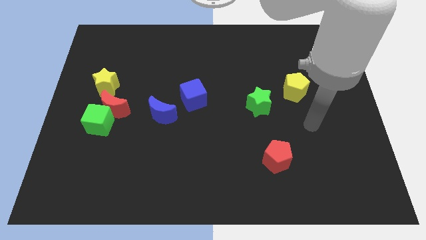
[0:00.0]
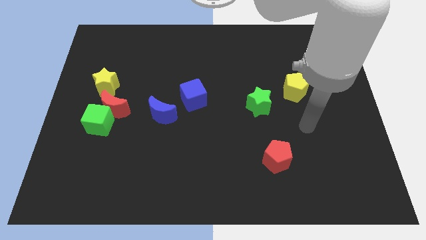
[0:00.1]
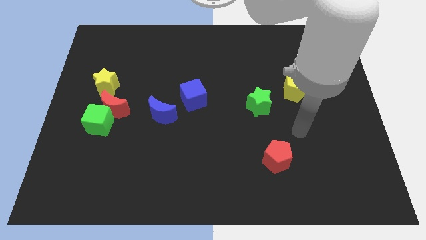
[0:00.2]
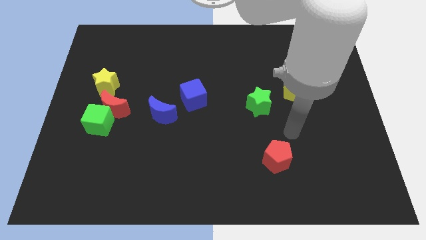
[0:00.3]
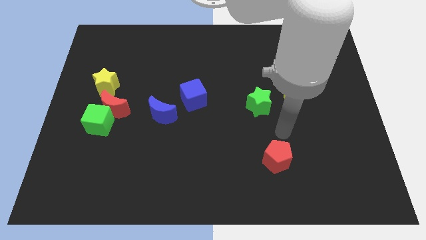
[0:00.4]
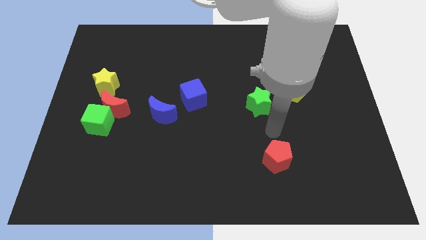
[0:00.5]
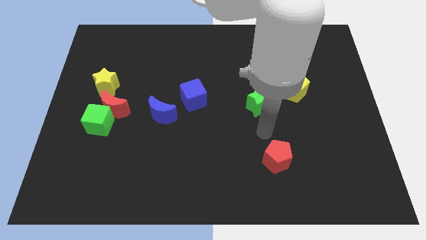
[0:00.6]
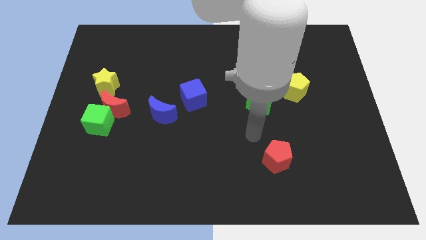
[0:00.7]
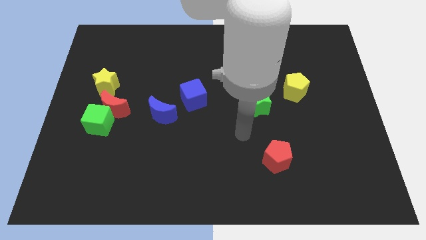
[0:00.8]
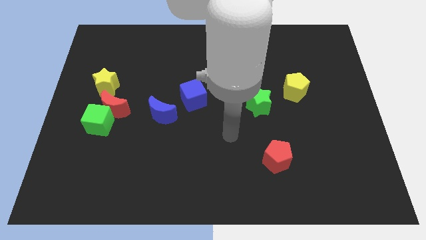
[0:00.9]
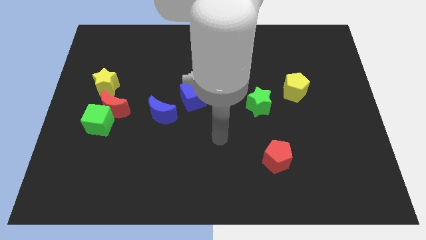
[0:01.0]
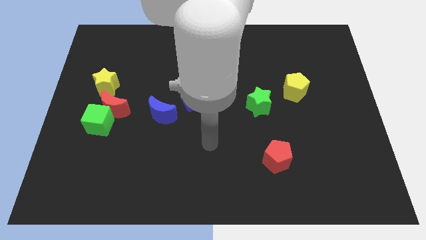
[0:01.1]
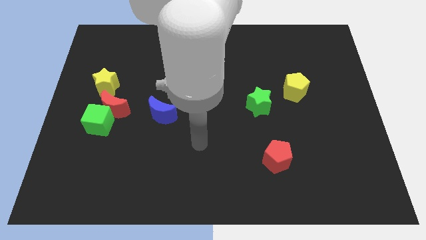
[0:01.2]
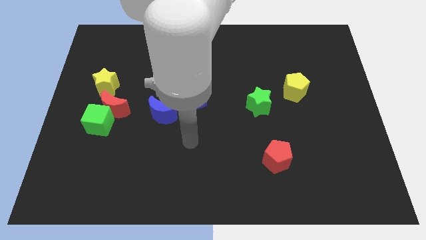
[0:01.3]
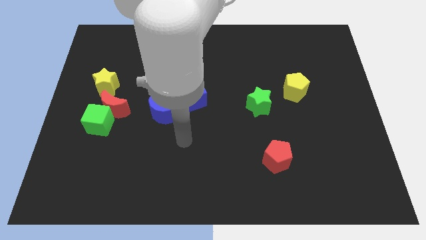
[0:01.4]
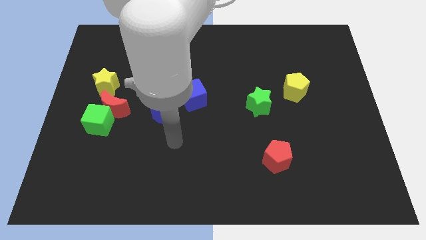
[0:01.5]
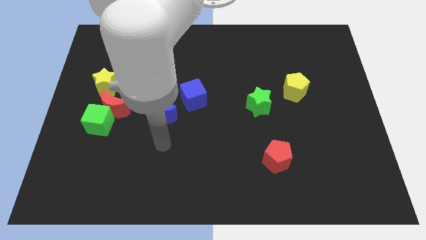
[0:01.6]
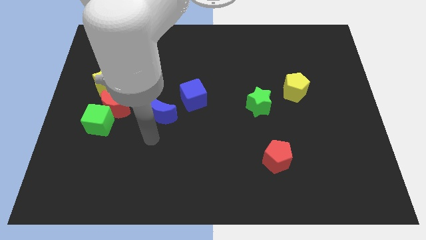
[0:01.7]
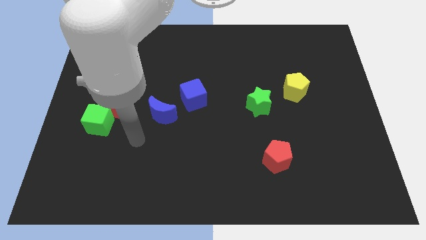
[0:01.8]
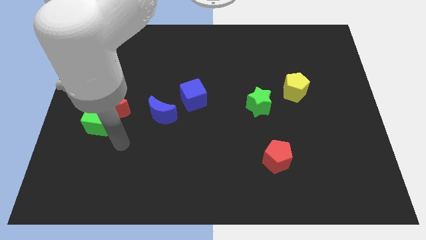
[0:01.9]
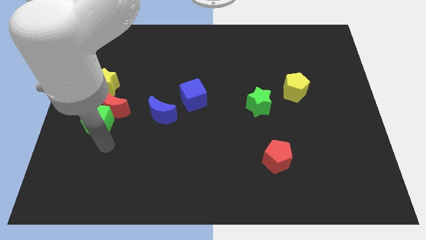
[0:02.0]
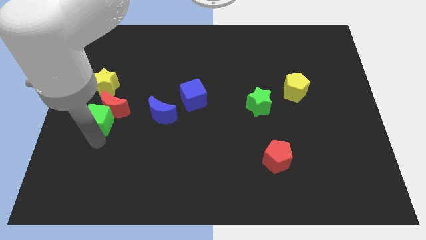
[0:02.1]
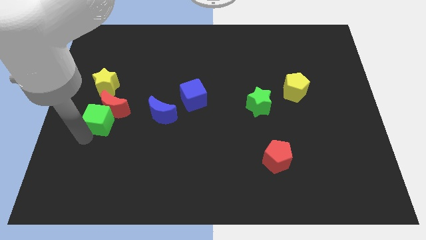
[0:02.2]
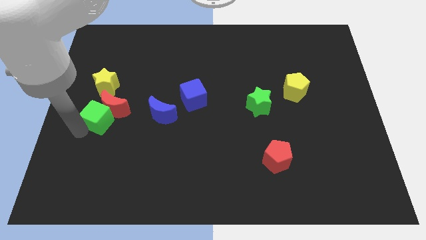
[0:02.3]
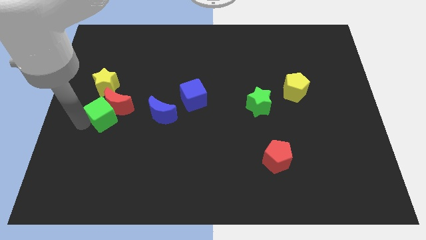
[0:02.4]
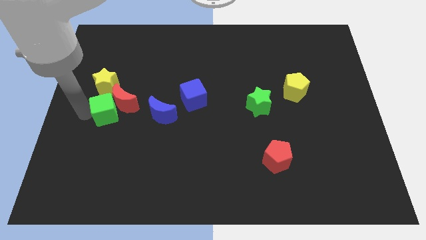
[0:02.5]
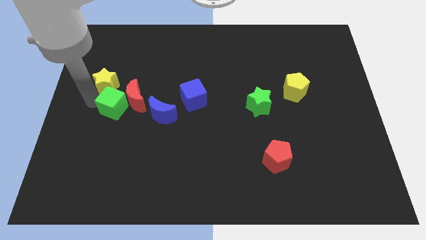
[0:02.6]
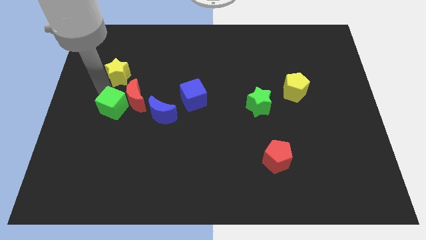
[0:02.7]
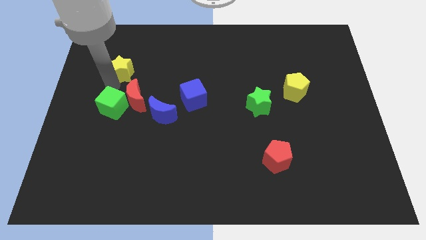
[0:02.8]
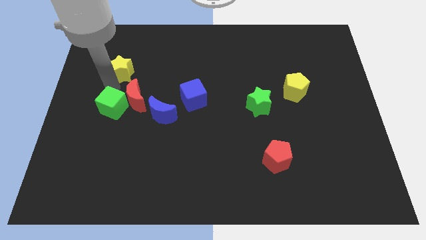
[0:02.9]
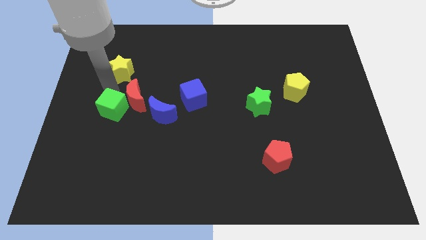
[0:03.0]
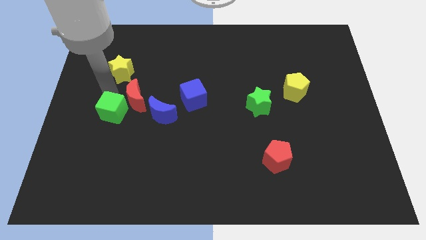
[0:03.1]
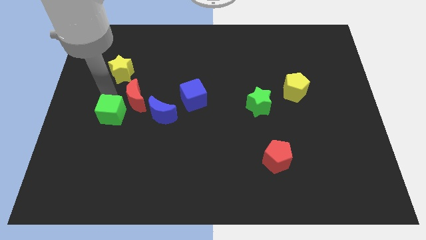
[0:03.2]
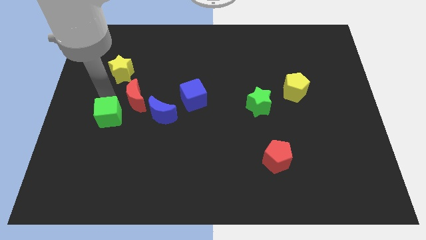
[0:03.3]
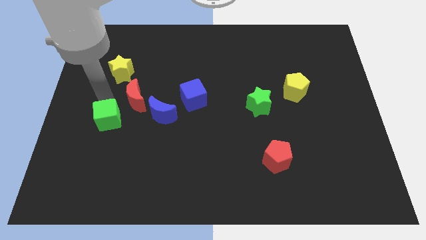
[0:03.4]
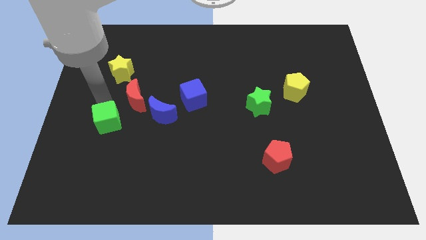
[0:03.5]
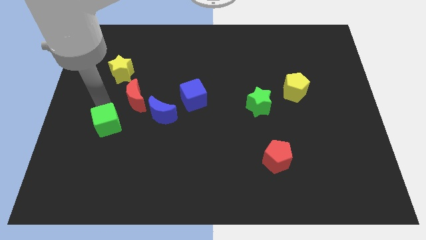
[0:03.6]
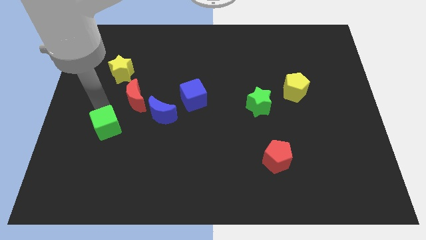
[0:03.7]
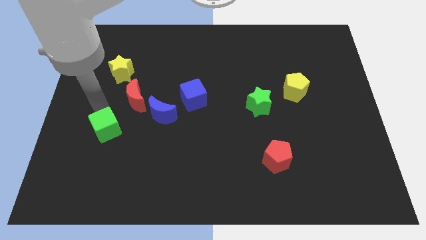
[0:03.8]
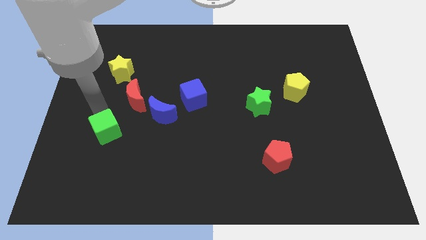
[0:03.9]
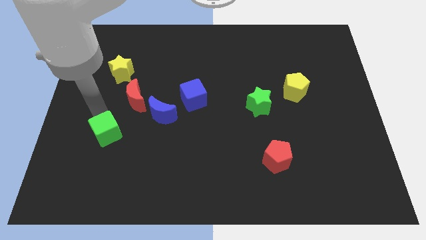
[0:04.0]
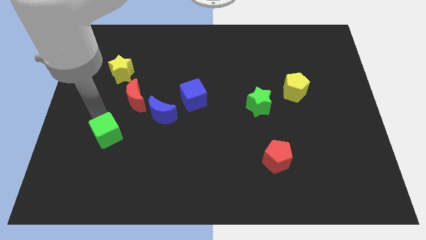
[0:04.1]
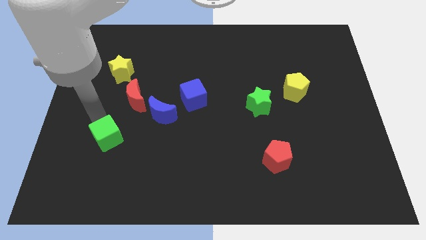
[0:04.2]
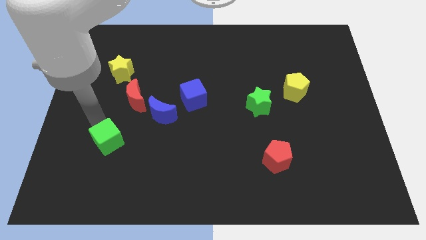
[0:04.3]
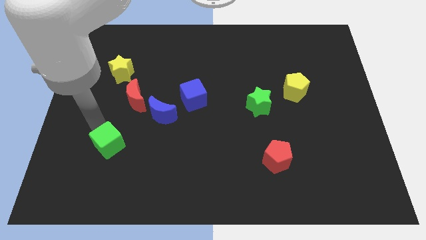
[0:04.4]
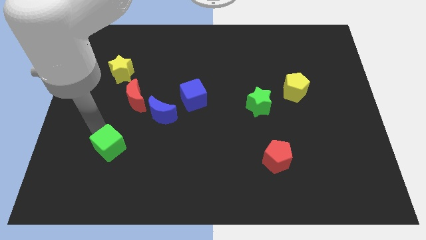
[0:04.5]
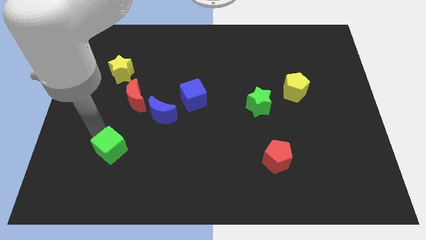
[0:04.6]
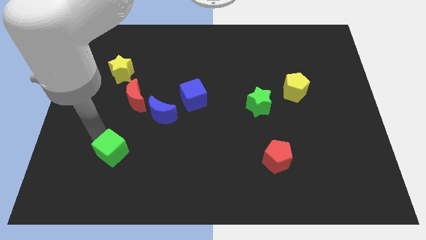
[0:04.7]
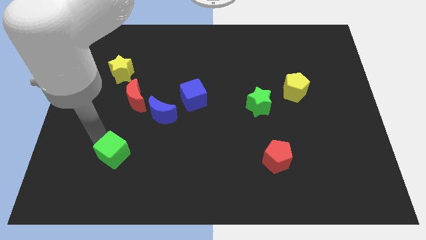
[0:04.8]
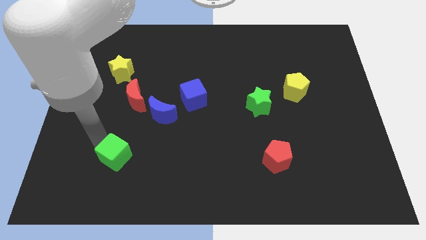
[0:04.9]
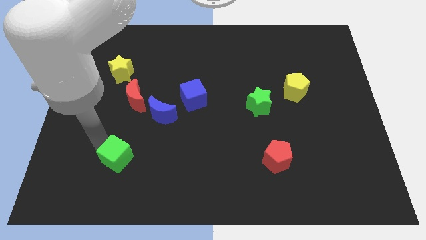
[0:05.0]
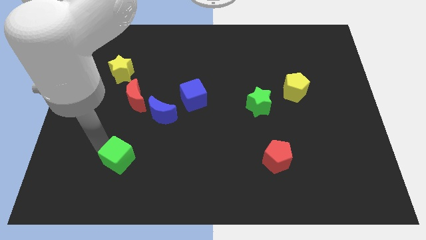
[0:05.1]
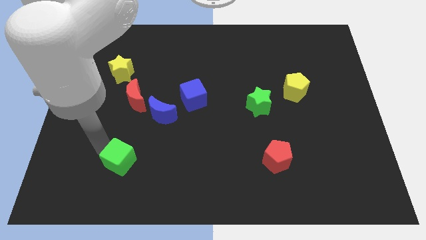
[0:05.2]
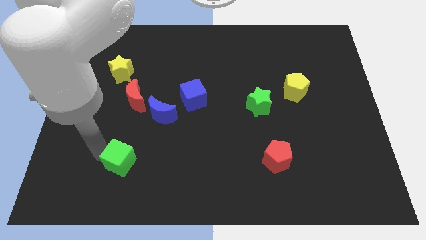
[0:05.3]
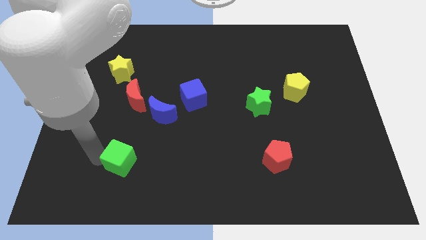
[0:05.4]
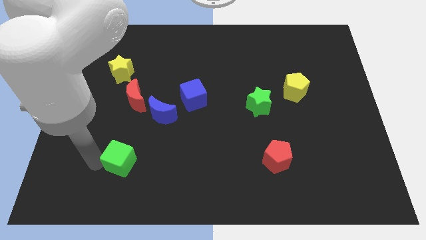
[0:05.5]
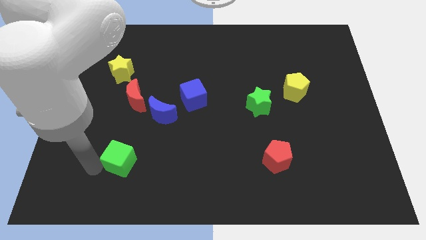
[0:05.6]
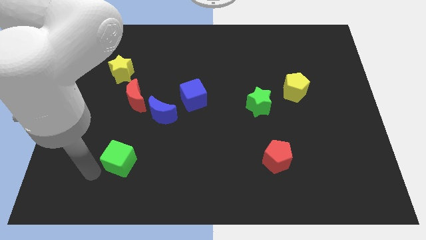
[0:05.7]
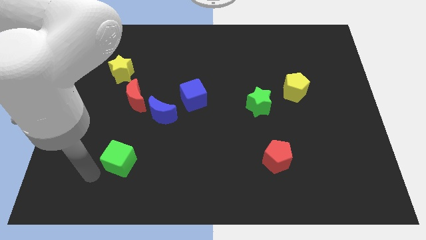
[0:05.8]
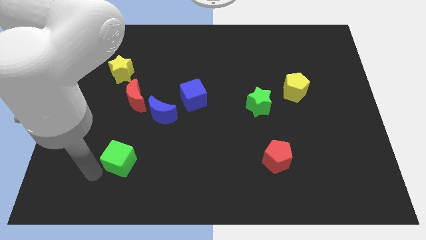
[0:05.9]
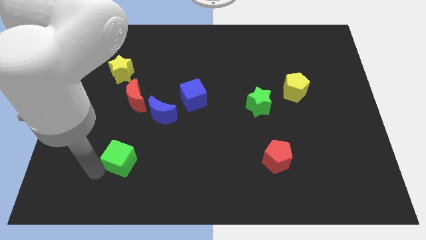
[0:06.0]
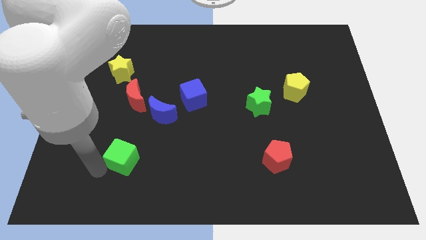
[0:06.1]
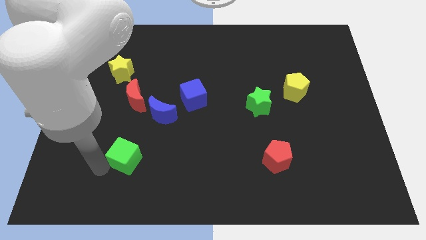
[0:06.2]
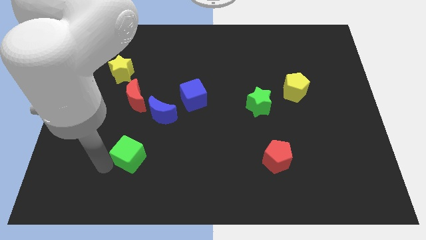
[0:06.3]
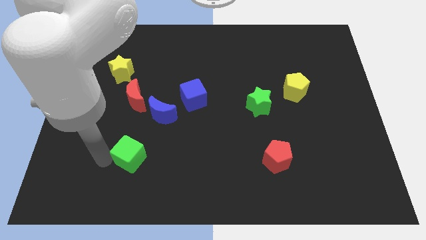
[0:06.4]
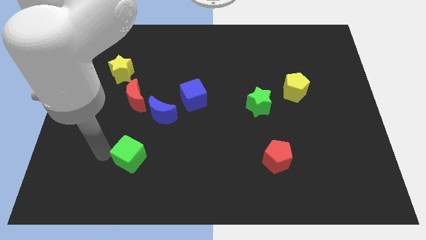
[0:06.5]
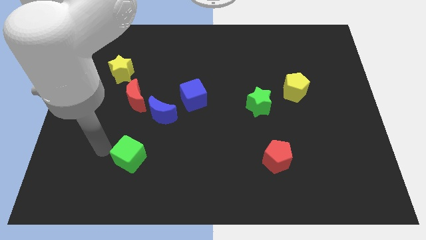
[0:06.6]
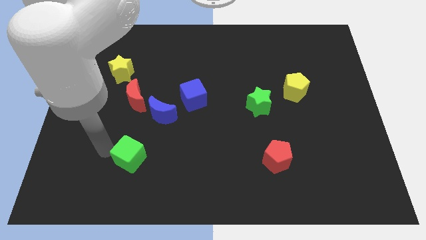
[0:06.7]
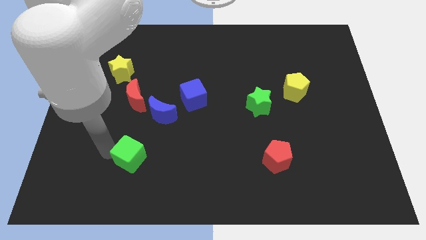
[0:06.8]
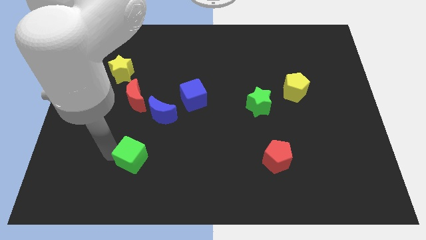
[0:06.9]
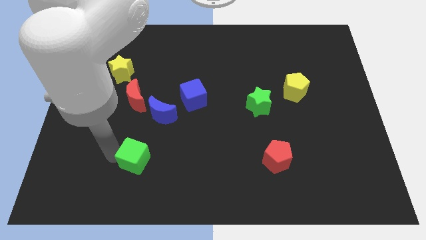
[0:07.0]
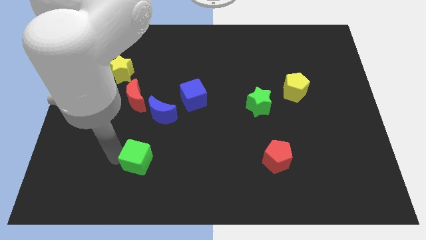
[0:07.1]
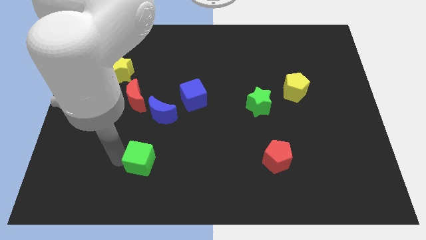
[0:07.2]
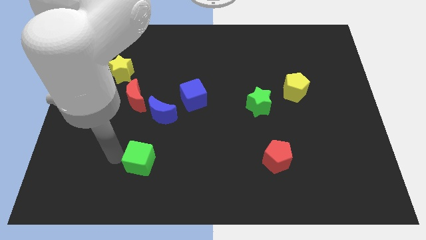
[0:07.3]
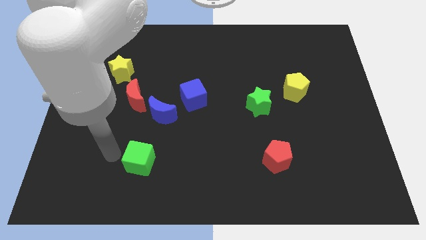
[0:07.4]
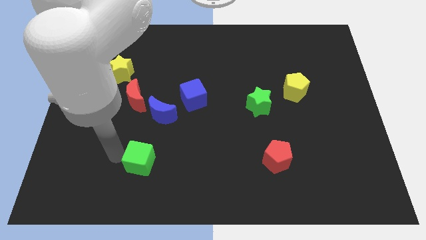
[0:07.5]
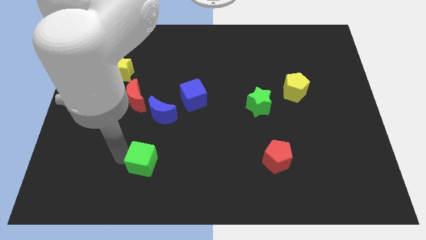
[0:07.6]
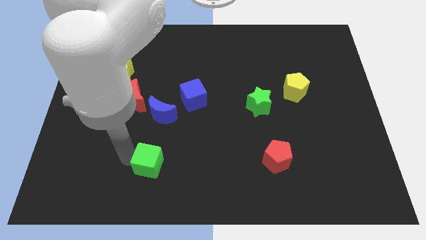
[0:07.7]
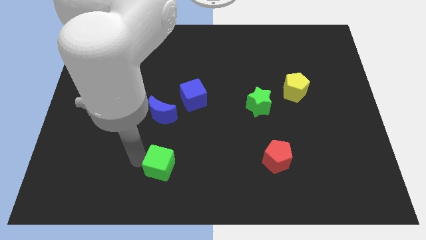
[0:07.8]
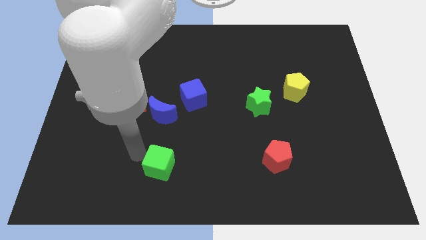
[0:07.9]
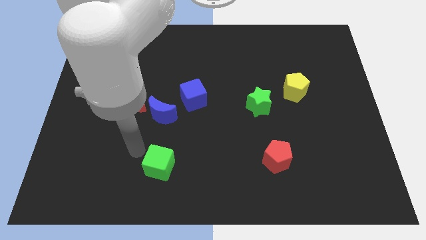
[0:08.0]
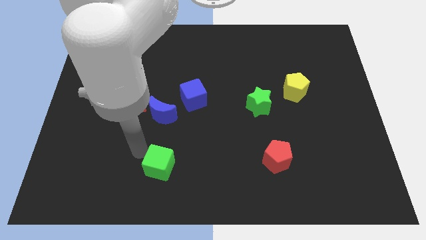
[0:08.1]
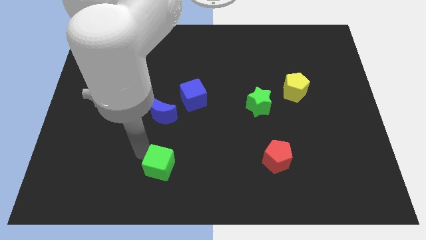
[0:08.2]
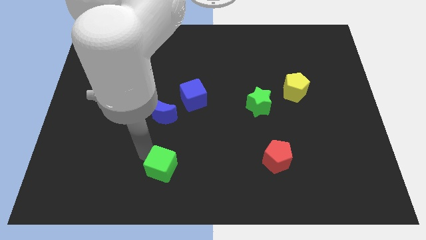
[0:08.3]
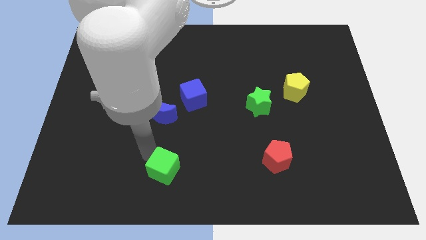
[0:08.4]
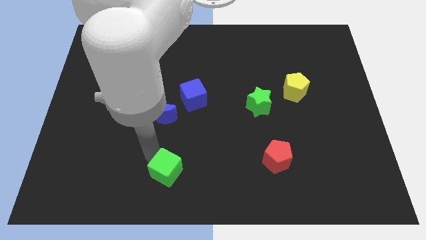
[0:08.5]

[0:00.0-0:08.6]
slide the green cube to the bottom
